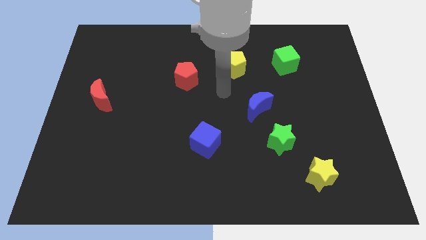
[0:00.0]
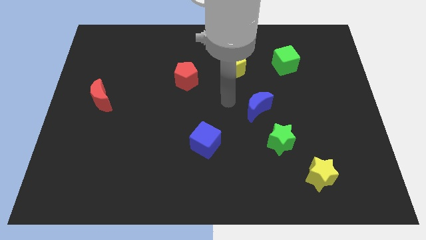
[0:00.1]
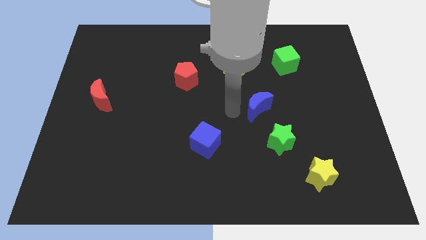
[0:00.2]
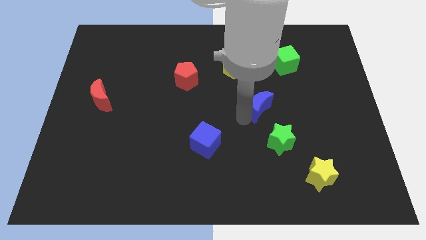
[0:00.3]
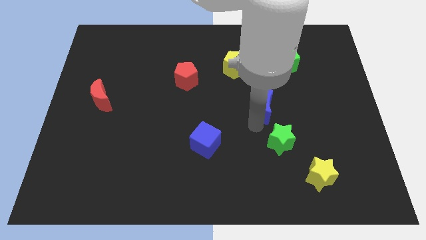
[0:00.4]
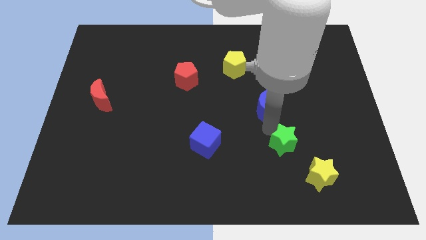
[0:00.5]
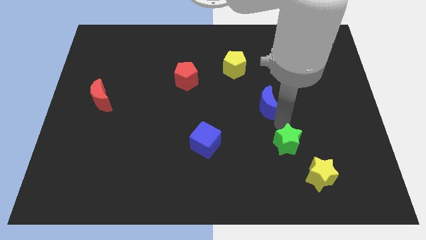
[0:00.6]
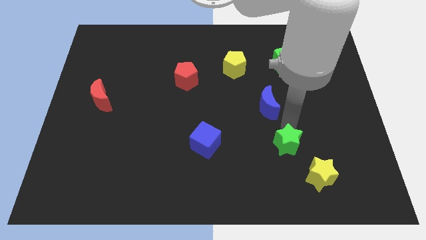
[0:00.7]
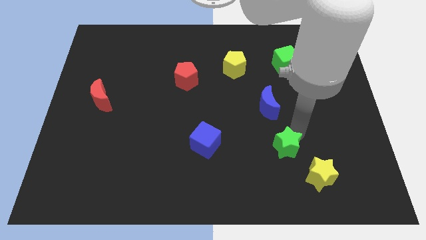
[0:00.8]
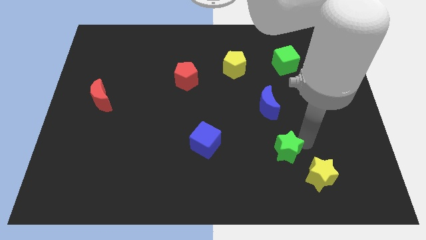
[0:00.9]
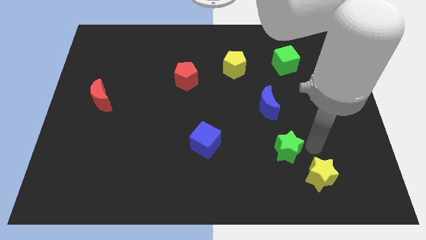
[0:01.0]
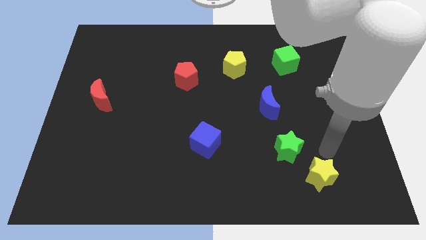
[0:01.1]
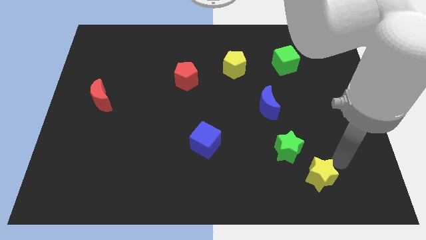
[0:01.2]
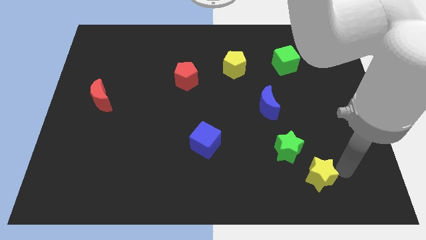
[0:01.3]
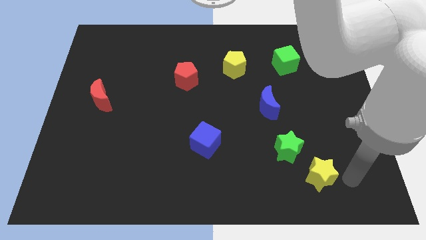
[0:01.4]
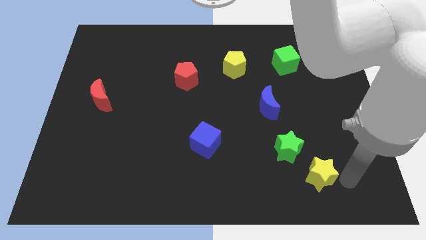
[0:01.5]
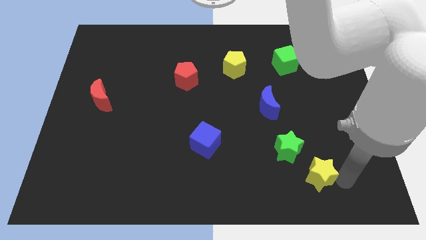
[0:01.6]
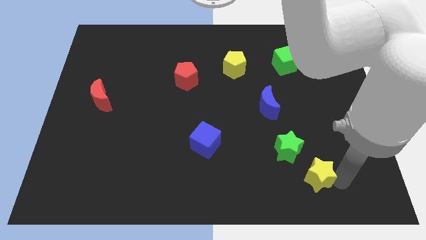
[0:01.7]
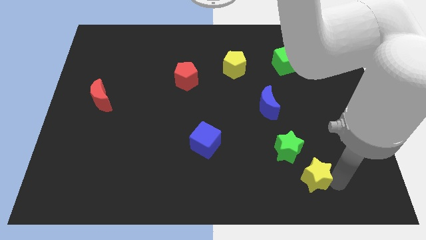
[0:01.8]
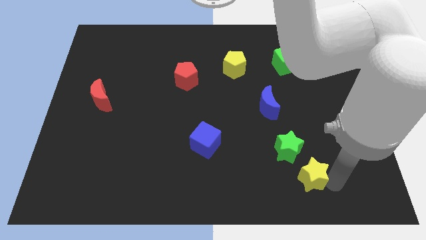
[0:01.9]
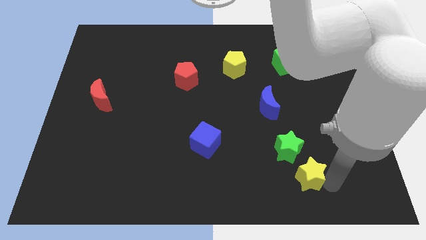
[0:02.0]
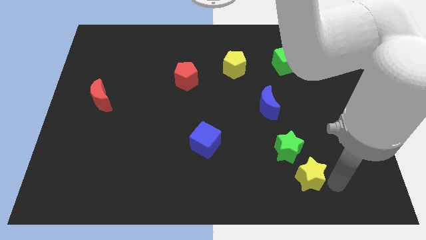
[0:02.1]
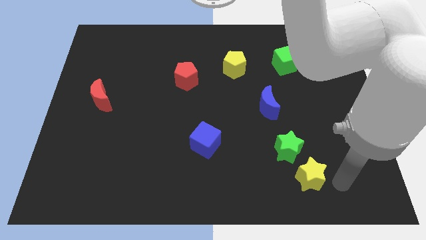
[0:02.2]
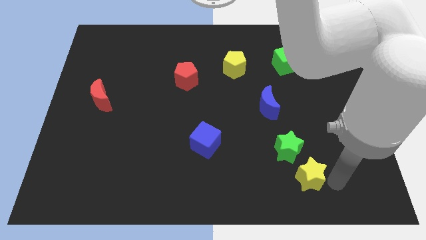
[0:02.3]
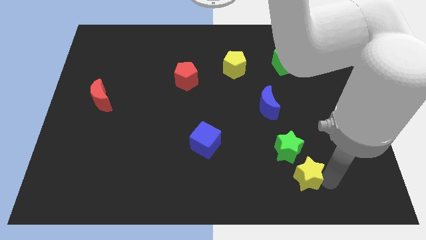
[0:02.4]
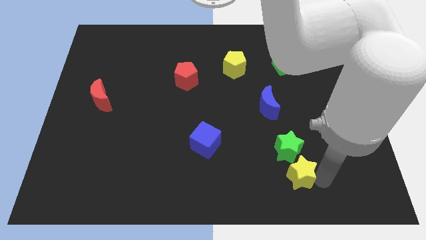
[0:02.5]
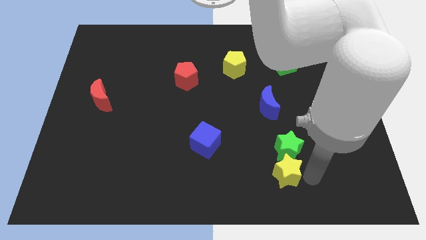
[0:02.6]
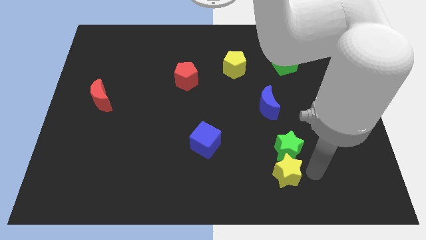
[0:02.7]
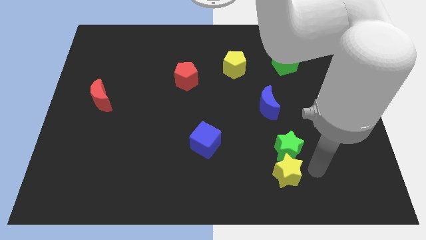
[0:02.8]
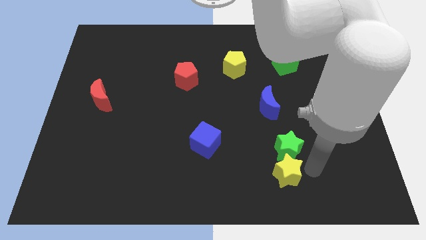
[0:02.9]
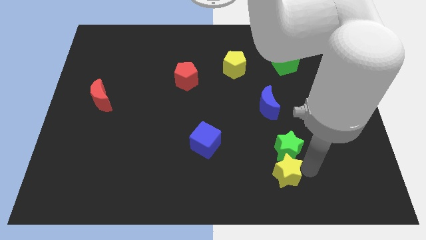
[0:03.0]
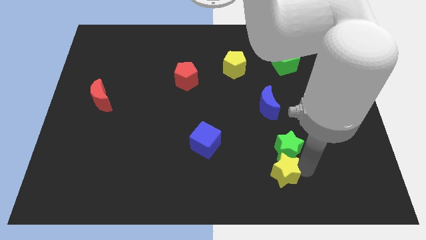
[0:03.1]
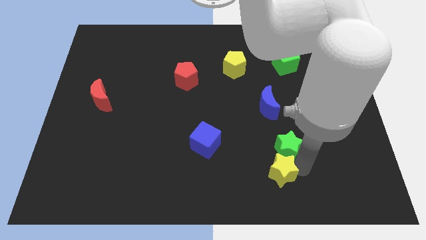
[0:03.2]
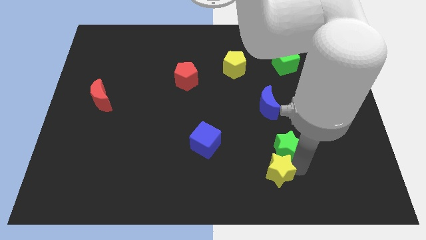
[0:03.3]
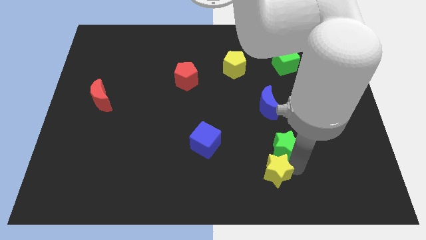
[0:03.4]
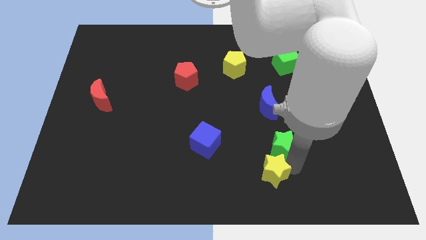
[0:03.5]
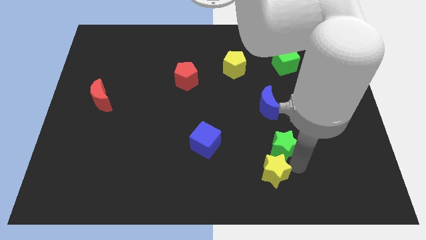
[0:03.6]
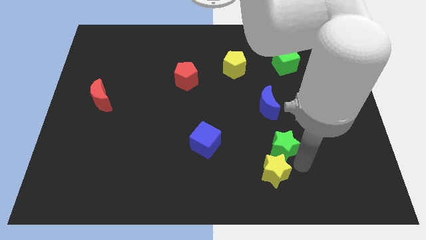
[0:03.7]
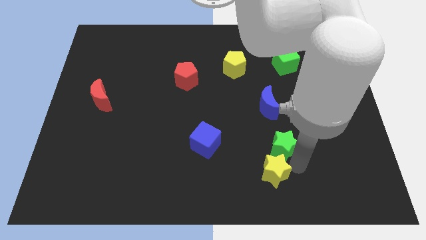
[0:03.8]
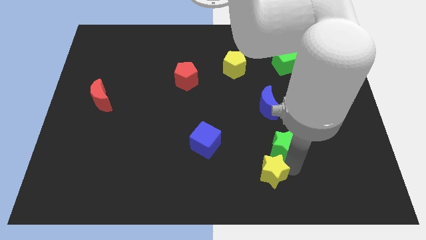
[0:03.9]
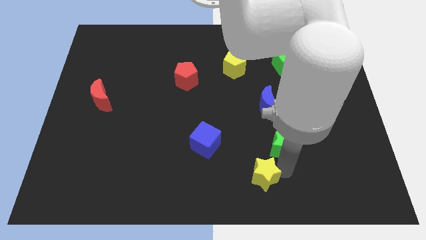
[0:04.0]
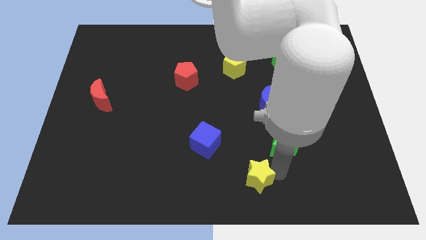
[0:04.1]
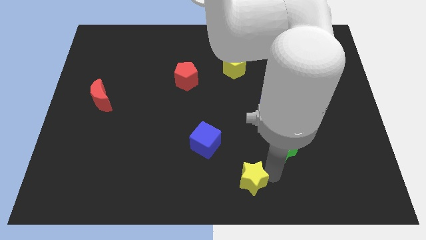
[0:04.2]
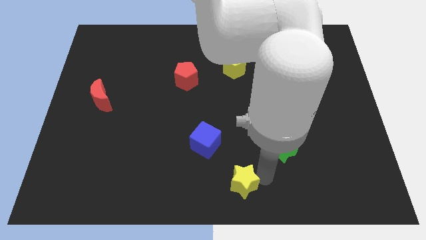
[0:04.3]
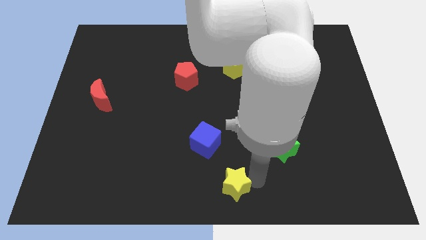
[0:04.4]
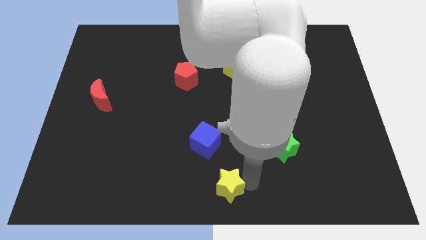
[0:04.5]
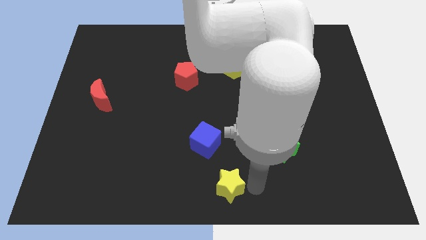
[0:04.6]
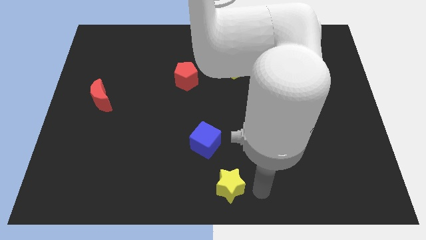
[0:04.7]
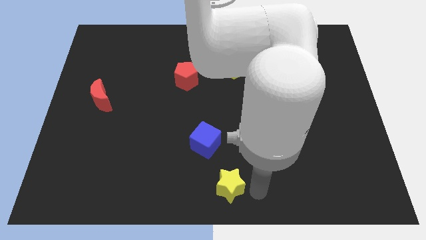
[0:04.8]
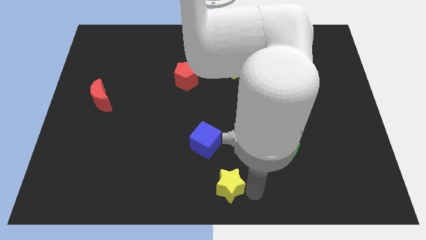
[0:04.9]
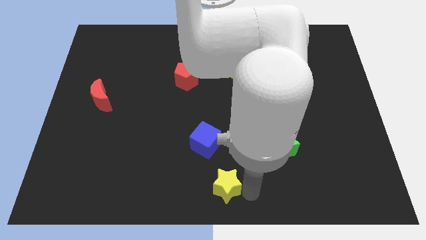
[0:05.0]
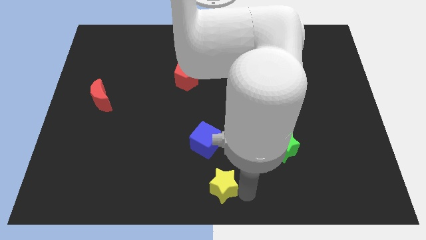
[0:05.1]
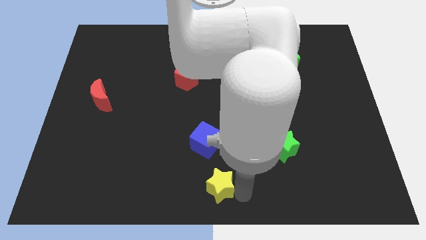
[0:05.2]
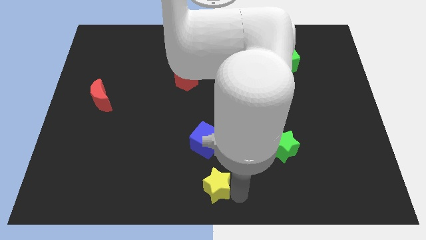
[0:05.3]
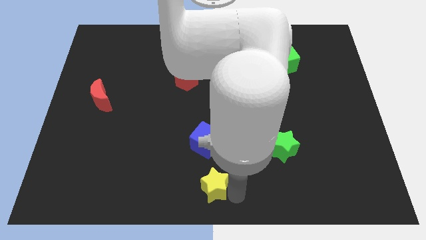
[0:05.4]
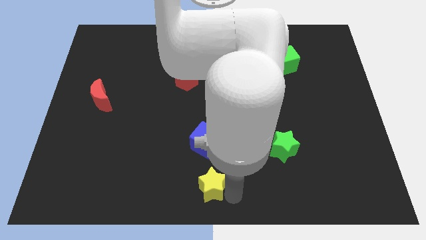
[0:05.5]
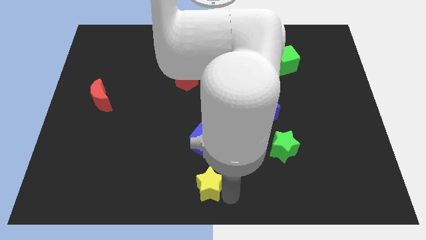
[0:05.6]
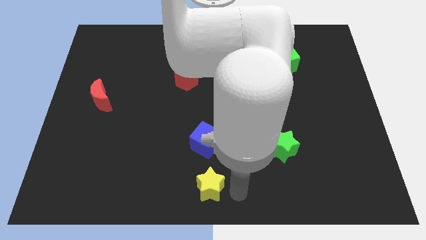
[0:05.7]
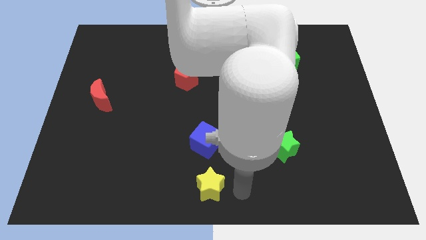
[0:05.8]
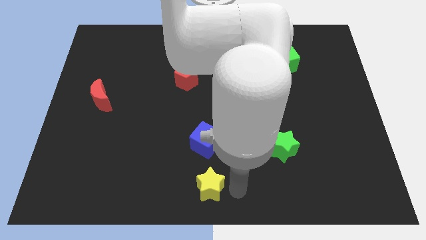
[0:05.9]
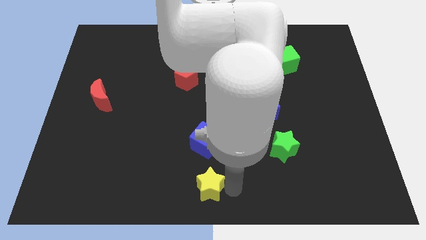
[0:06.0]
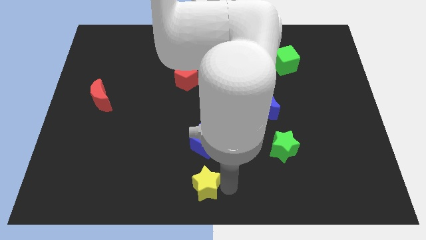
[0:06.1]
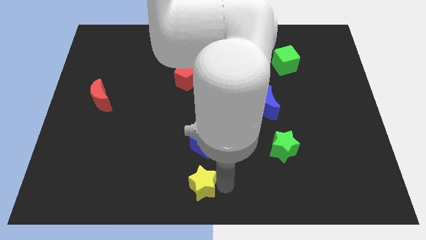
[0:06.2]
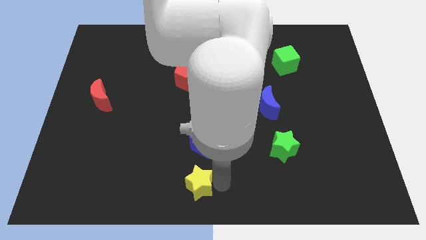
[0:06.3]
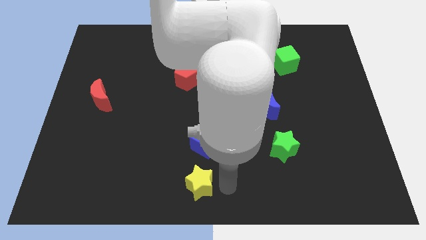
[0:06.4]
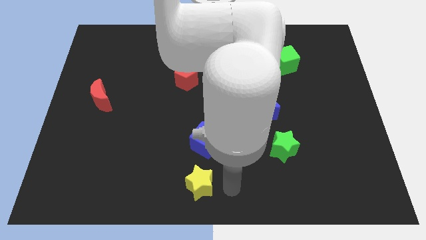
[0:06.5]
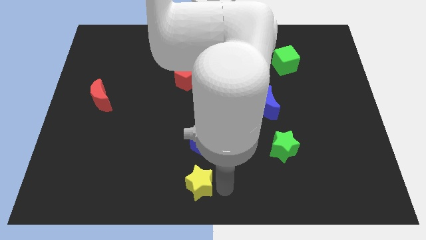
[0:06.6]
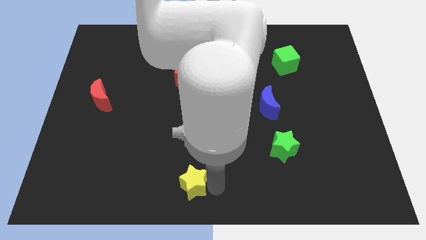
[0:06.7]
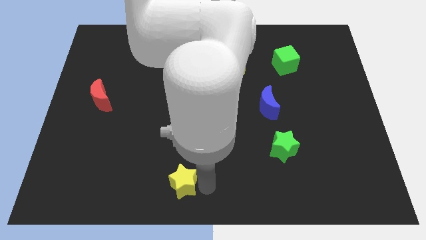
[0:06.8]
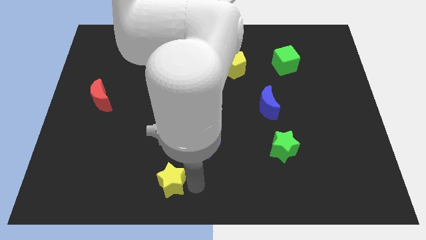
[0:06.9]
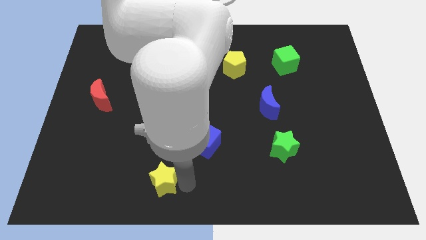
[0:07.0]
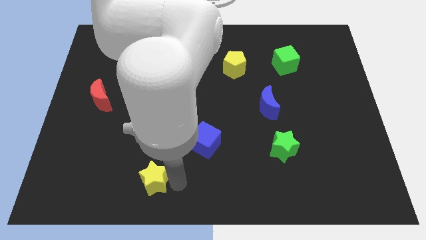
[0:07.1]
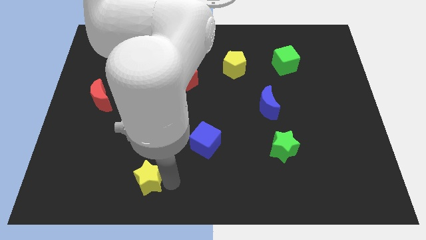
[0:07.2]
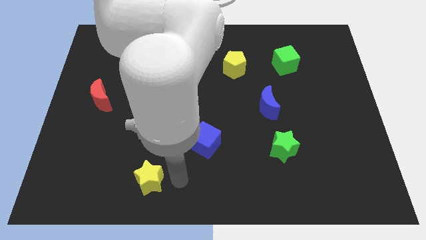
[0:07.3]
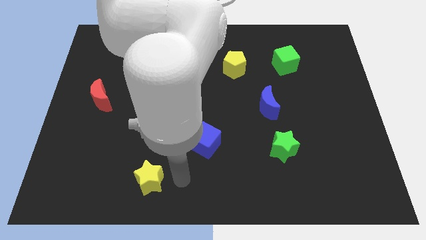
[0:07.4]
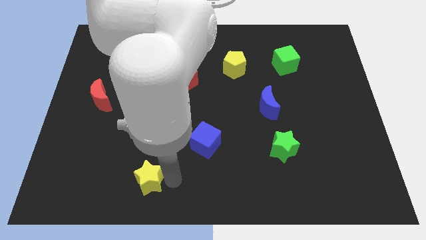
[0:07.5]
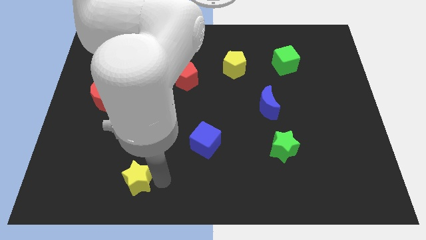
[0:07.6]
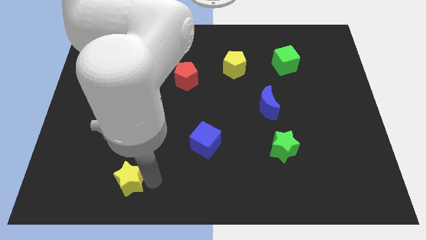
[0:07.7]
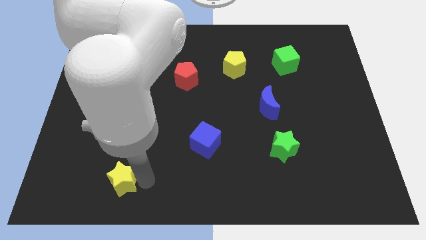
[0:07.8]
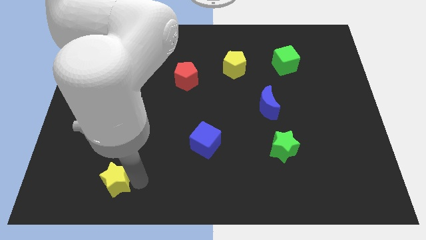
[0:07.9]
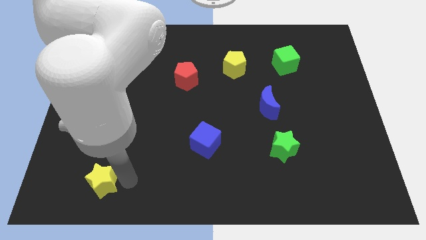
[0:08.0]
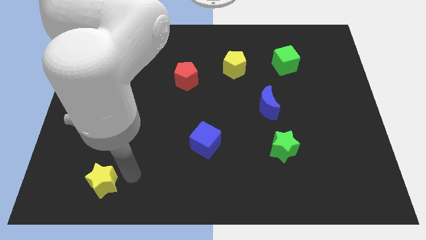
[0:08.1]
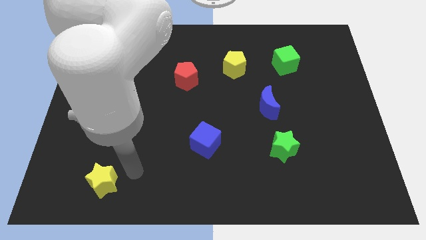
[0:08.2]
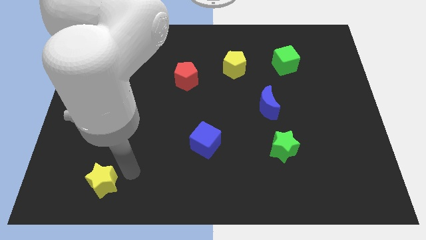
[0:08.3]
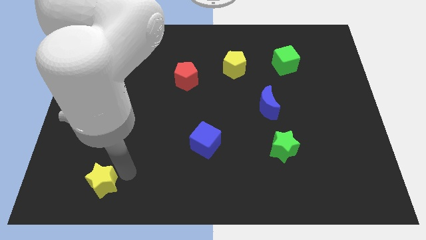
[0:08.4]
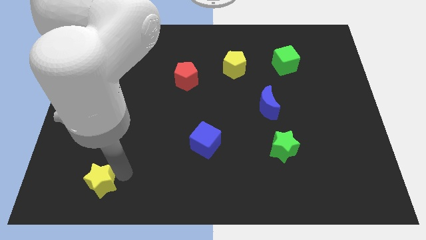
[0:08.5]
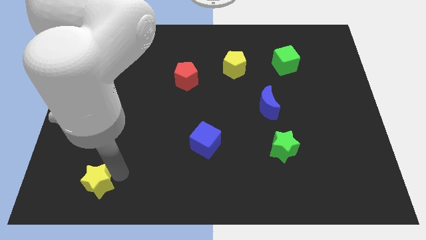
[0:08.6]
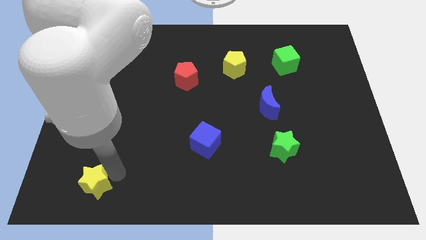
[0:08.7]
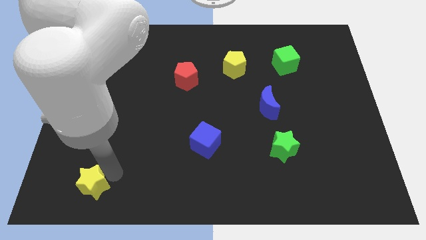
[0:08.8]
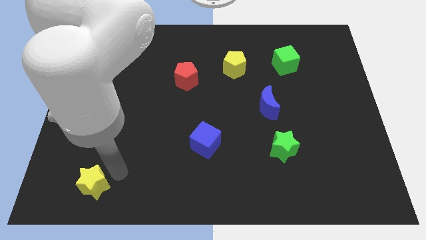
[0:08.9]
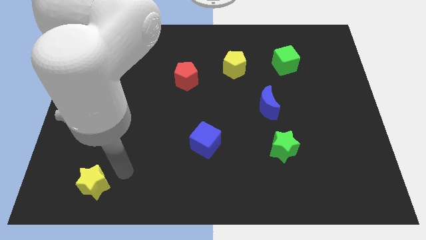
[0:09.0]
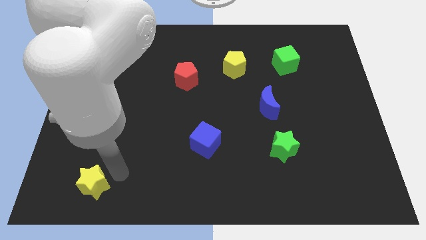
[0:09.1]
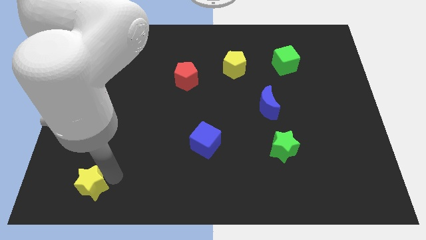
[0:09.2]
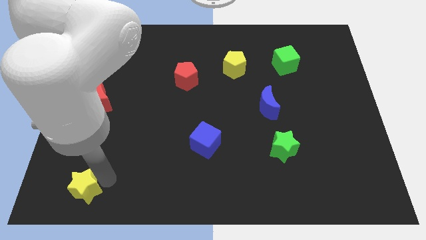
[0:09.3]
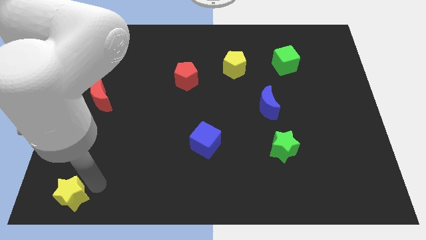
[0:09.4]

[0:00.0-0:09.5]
push the yellow star to the bottom left corner
